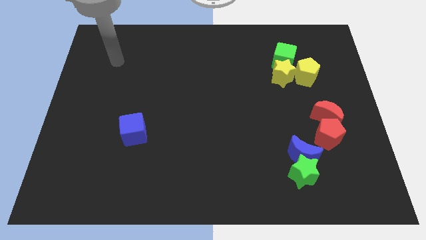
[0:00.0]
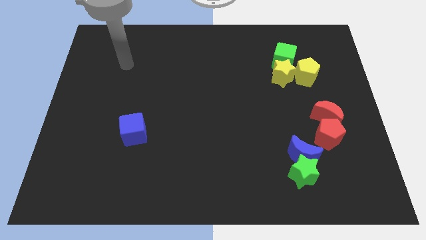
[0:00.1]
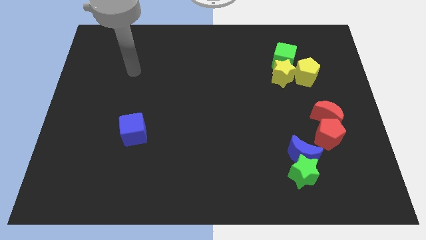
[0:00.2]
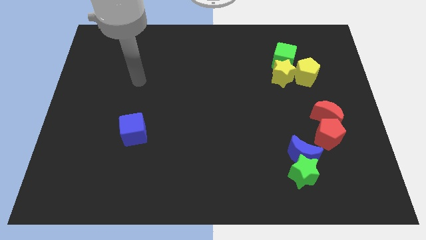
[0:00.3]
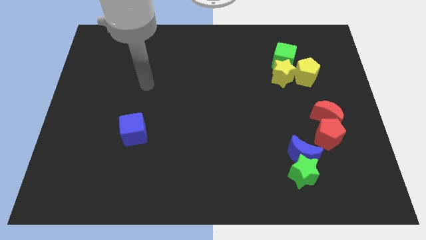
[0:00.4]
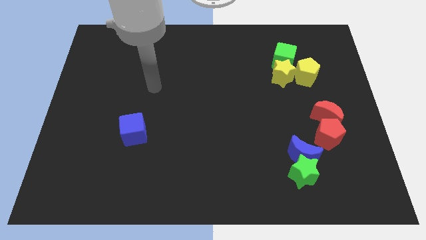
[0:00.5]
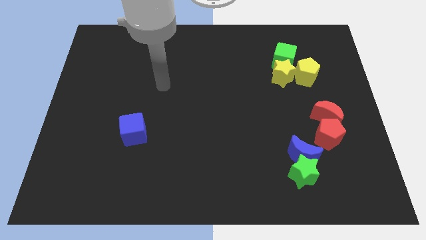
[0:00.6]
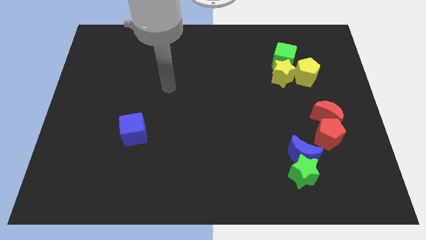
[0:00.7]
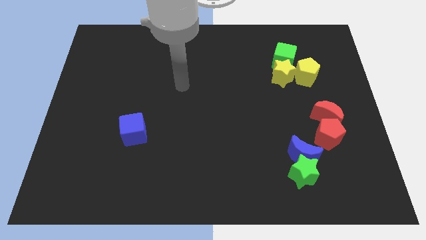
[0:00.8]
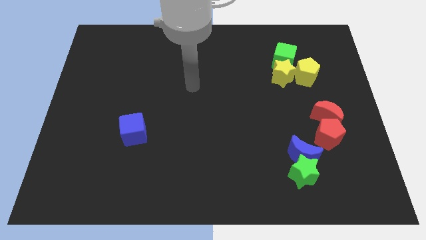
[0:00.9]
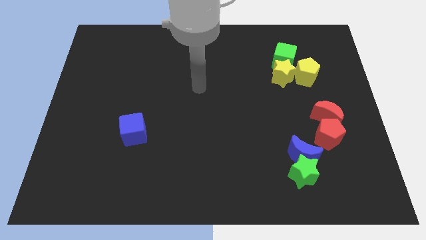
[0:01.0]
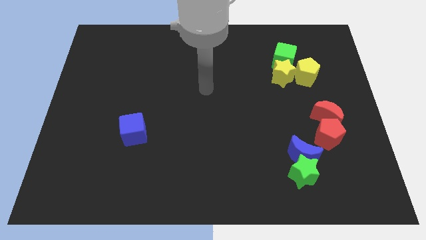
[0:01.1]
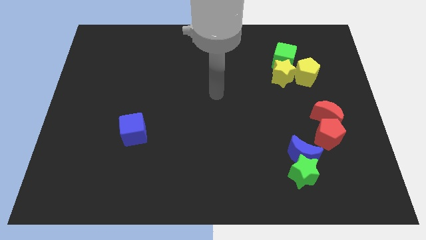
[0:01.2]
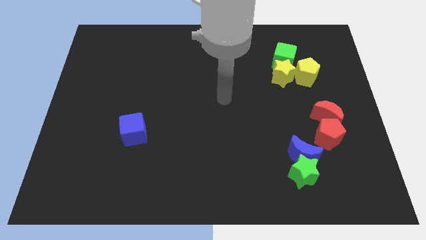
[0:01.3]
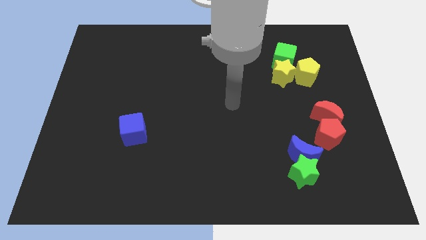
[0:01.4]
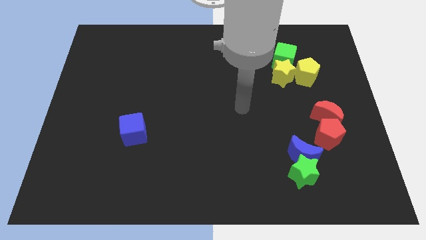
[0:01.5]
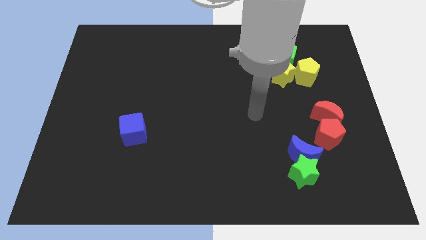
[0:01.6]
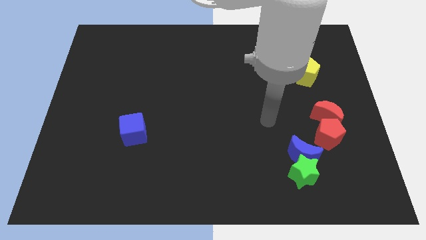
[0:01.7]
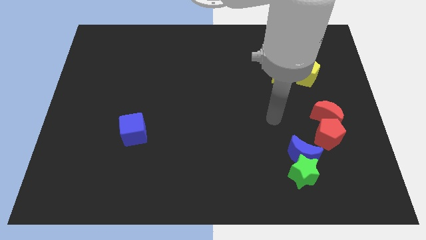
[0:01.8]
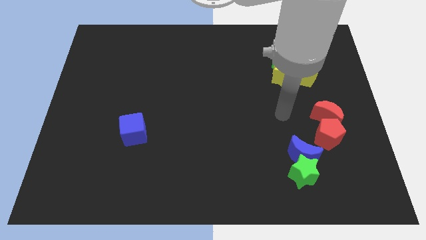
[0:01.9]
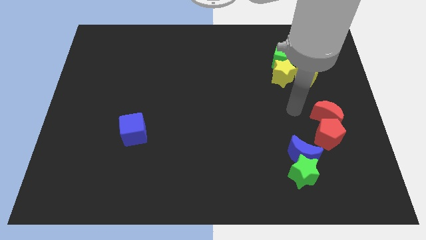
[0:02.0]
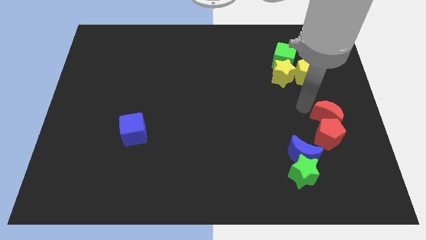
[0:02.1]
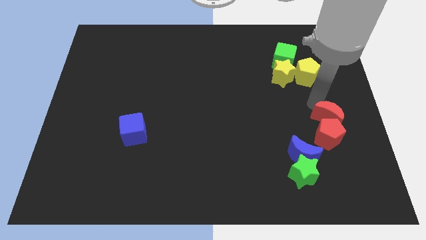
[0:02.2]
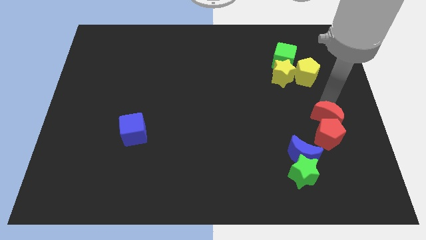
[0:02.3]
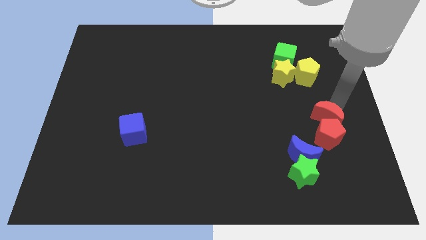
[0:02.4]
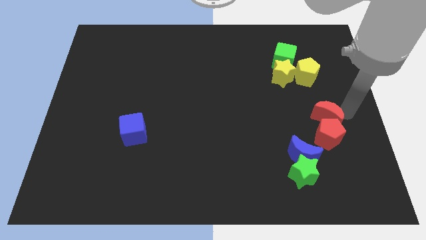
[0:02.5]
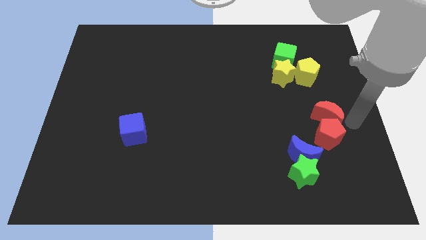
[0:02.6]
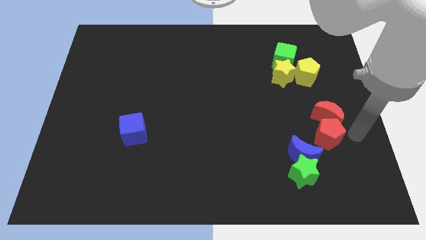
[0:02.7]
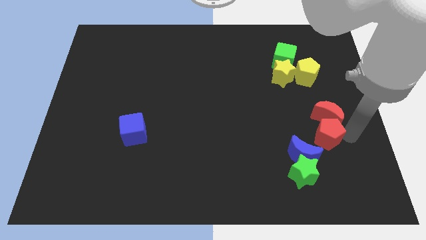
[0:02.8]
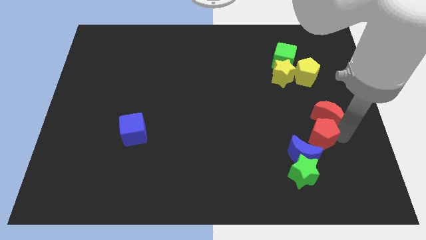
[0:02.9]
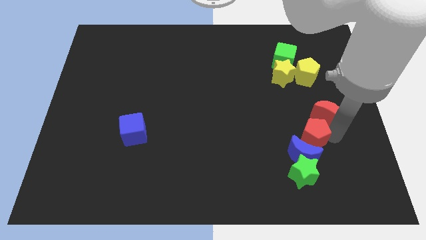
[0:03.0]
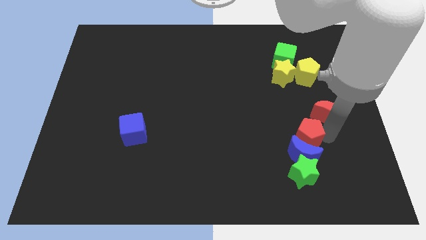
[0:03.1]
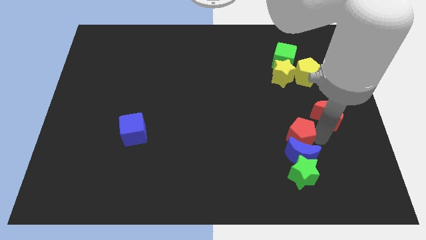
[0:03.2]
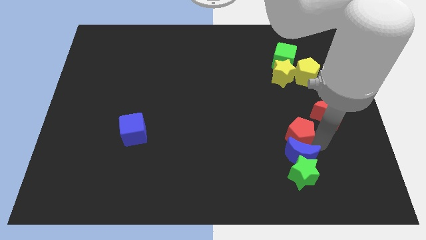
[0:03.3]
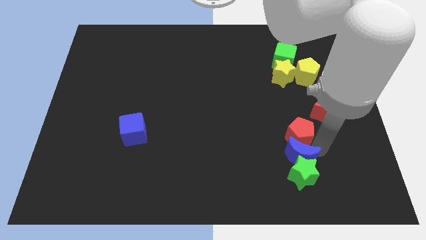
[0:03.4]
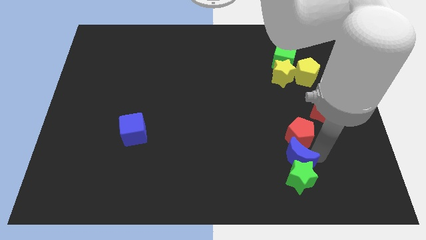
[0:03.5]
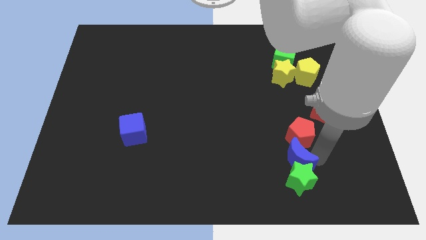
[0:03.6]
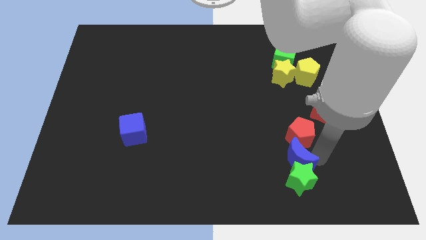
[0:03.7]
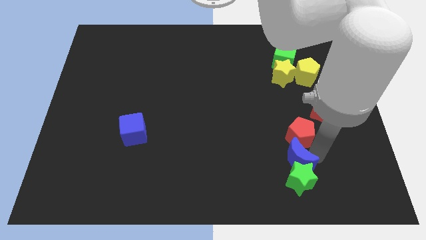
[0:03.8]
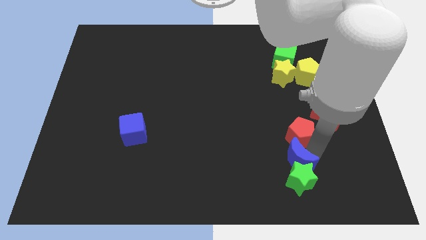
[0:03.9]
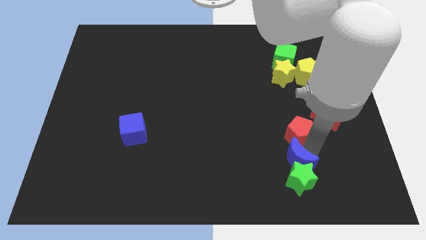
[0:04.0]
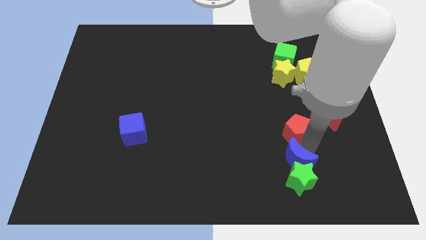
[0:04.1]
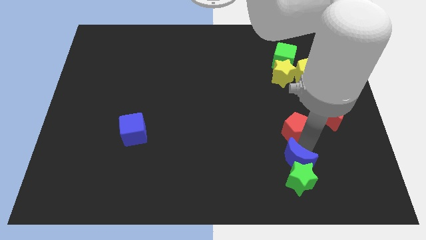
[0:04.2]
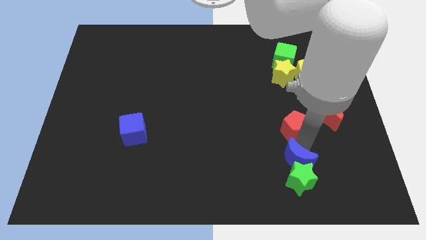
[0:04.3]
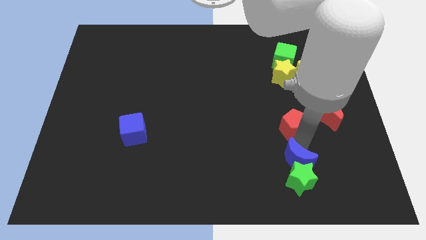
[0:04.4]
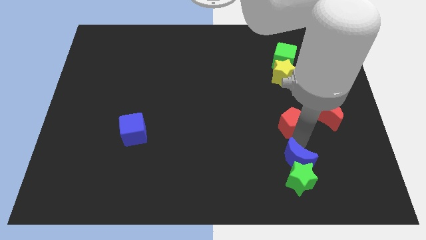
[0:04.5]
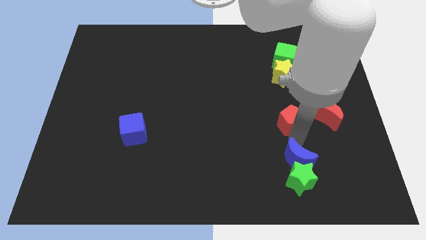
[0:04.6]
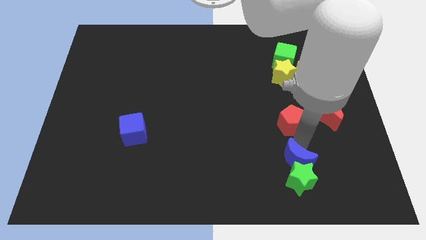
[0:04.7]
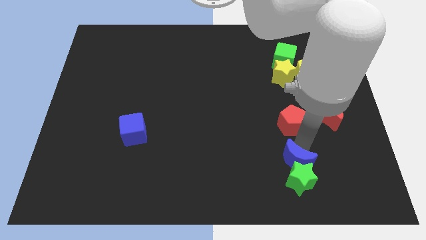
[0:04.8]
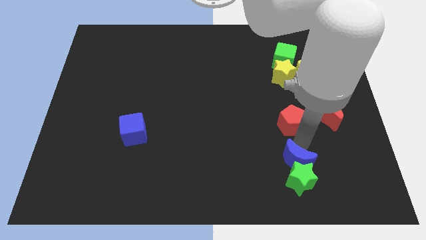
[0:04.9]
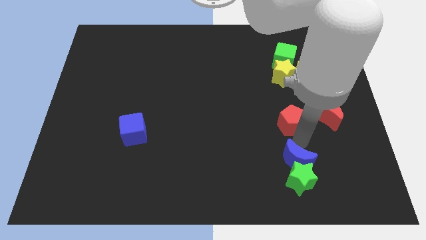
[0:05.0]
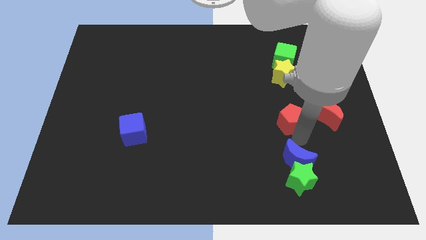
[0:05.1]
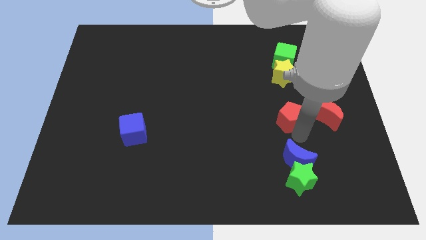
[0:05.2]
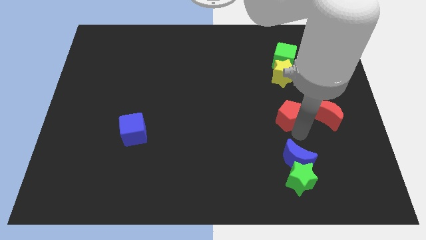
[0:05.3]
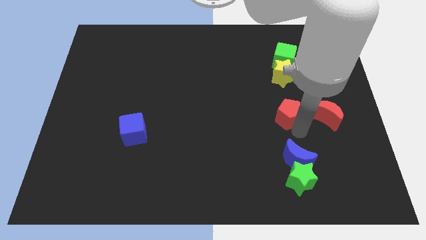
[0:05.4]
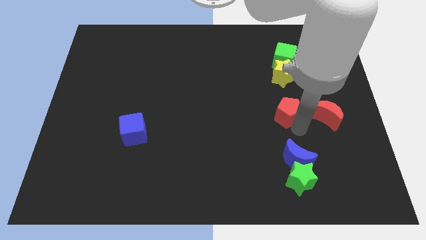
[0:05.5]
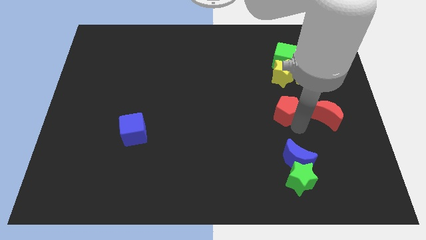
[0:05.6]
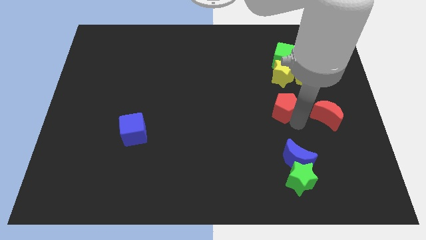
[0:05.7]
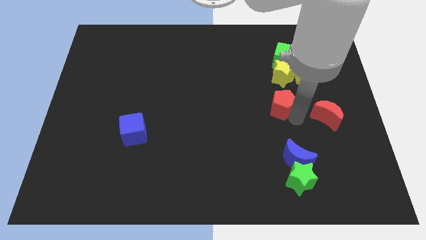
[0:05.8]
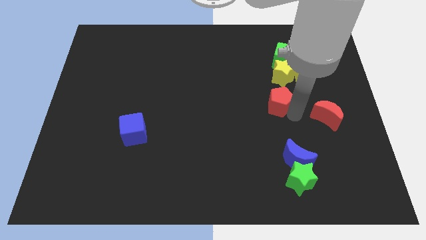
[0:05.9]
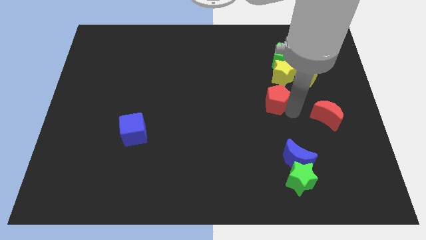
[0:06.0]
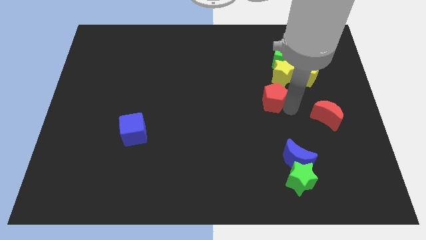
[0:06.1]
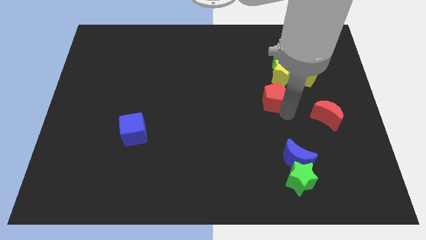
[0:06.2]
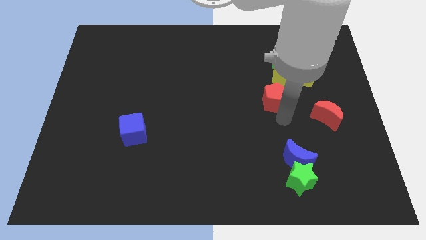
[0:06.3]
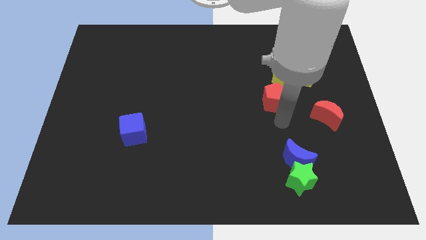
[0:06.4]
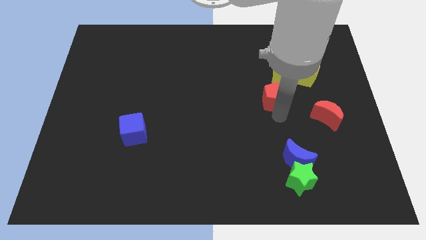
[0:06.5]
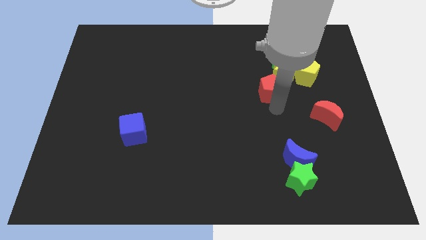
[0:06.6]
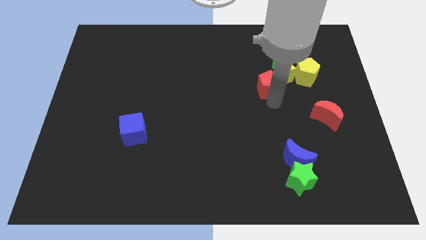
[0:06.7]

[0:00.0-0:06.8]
move the red pentagon to the left of the yellow pentagon
